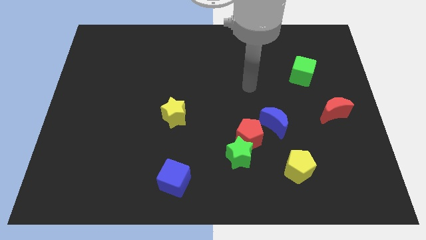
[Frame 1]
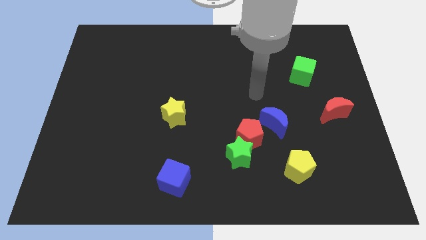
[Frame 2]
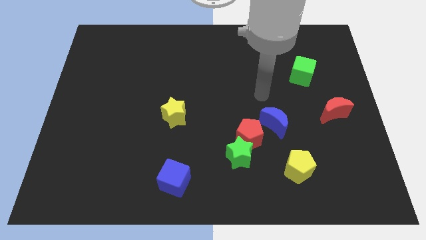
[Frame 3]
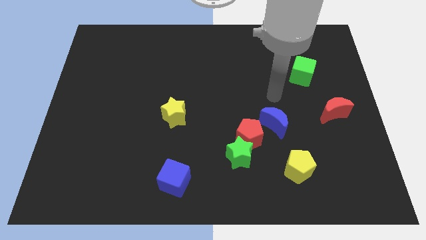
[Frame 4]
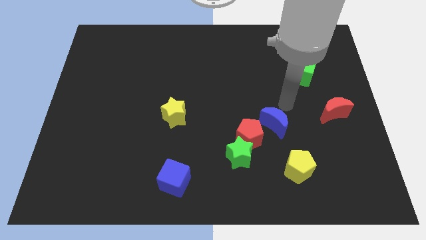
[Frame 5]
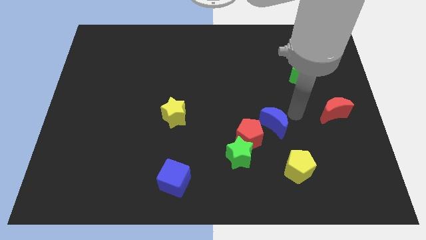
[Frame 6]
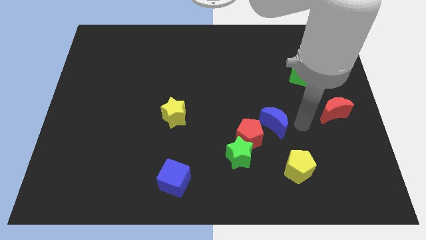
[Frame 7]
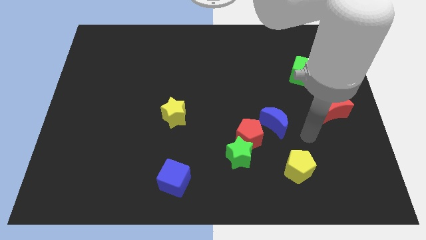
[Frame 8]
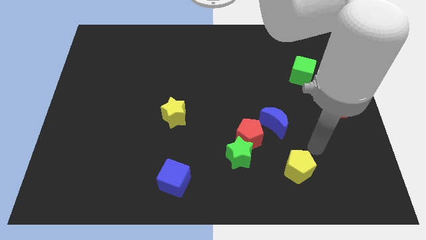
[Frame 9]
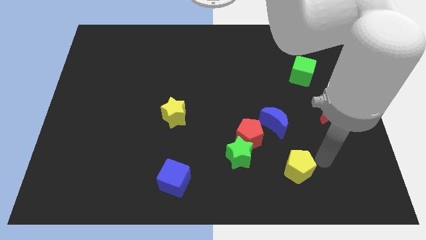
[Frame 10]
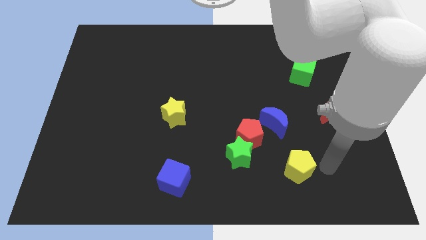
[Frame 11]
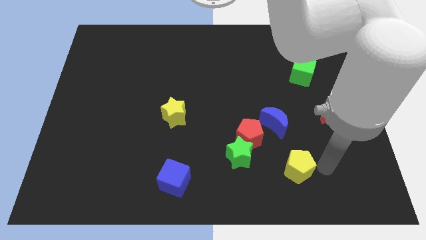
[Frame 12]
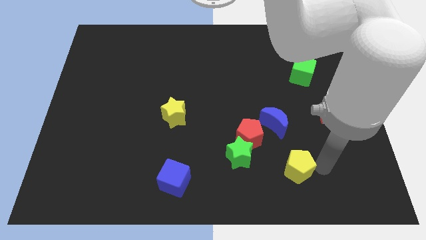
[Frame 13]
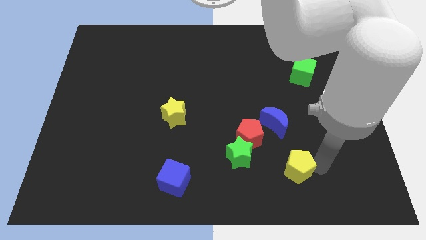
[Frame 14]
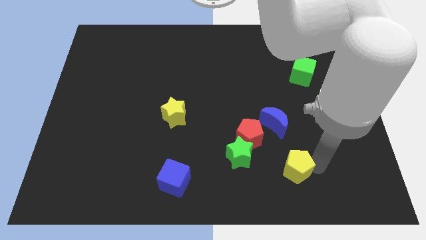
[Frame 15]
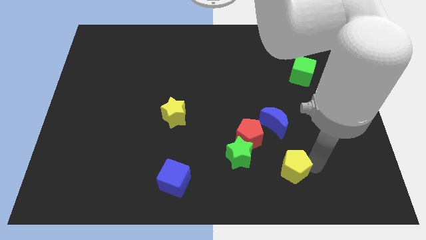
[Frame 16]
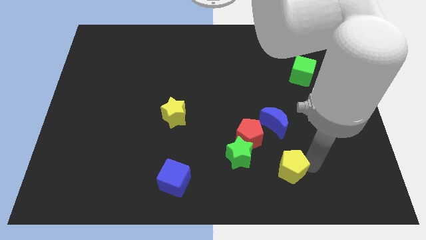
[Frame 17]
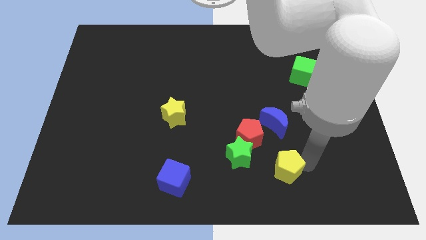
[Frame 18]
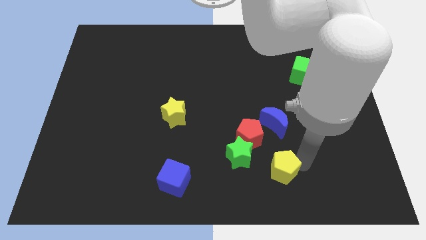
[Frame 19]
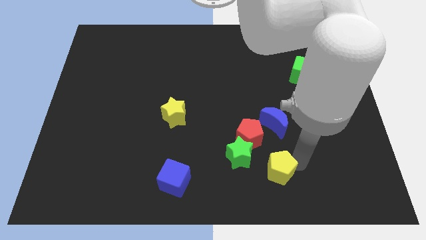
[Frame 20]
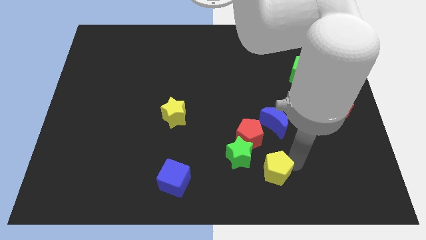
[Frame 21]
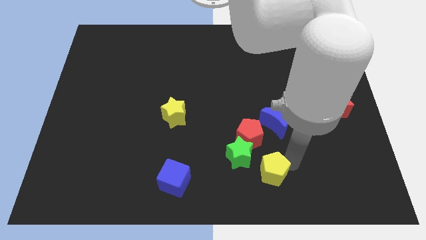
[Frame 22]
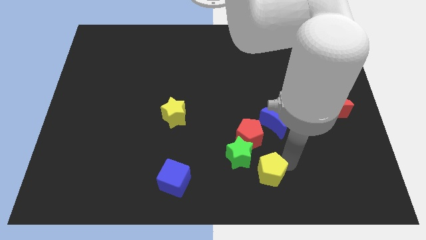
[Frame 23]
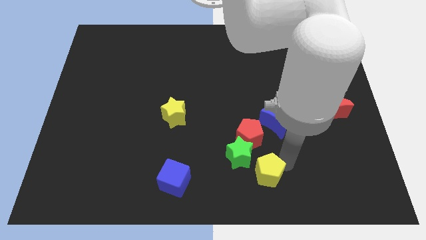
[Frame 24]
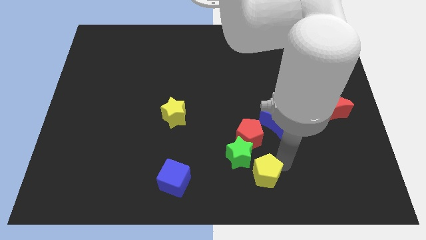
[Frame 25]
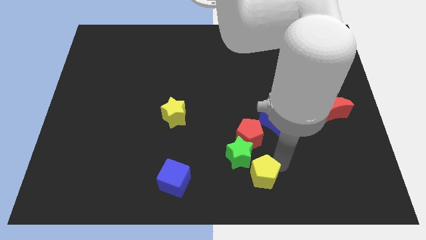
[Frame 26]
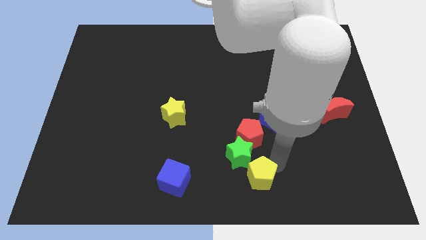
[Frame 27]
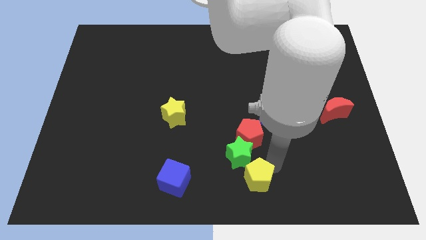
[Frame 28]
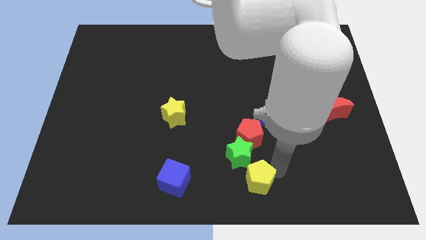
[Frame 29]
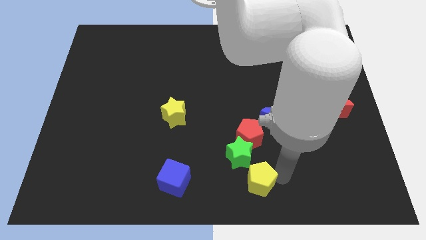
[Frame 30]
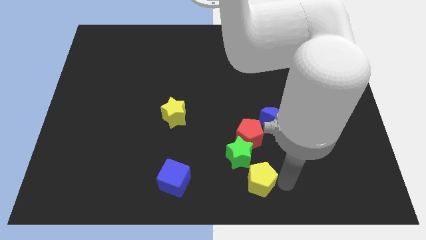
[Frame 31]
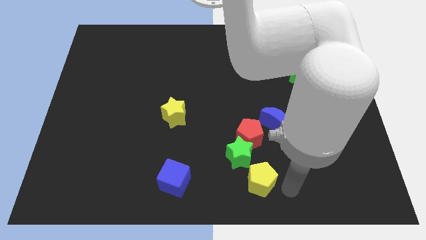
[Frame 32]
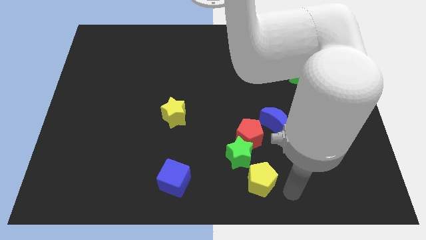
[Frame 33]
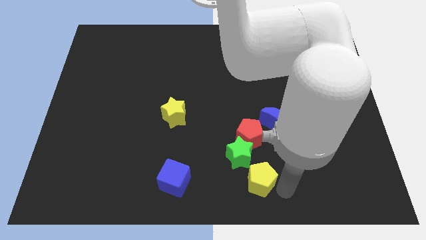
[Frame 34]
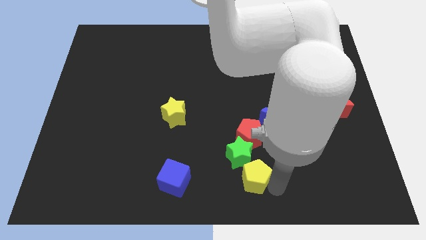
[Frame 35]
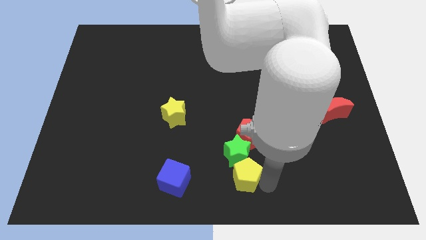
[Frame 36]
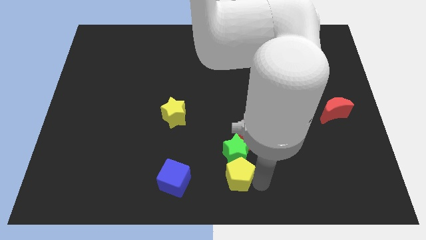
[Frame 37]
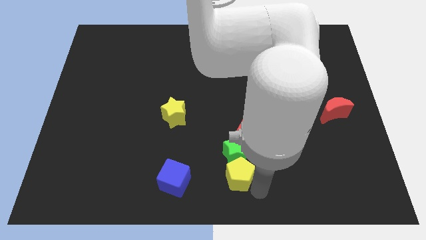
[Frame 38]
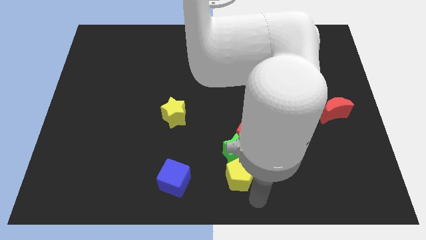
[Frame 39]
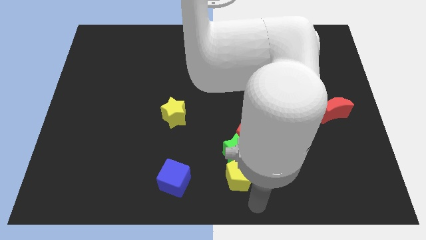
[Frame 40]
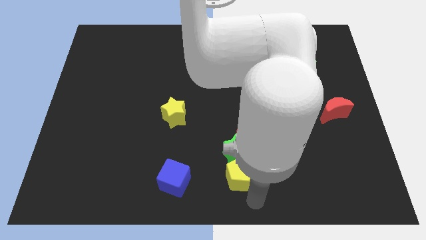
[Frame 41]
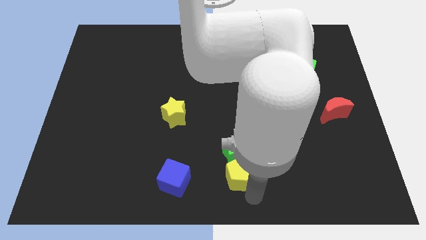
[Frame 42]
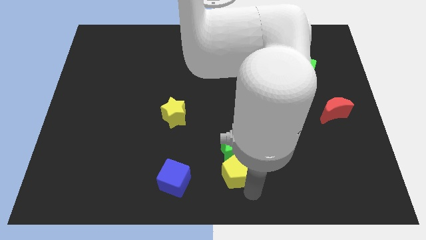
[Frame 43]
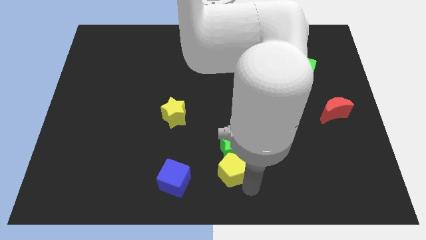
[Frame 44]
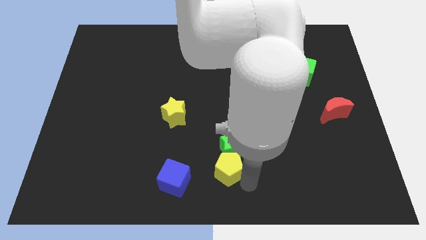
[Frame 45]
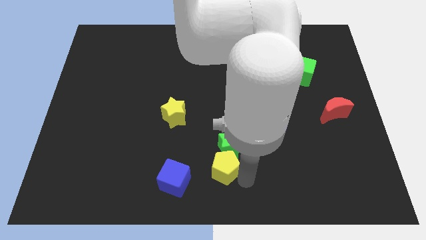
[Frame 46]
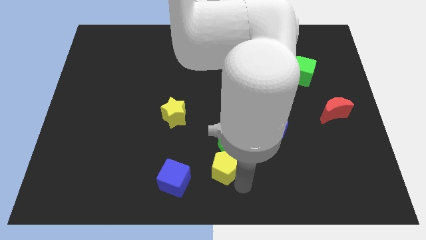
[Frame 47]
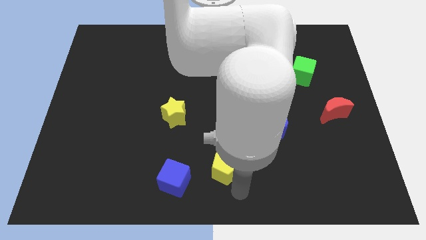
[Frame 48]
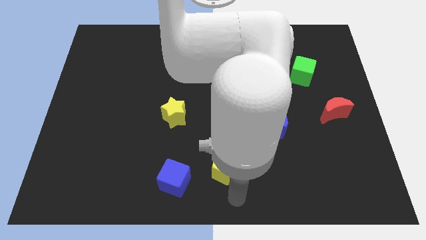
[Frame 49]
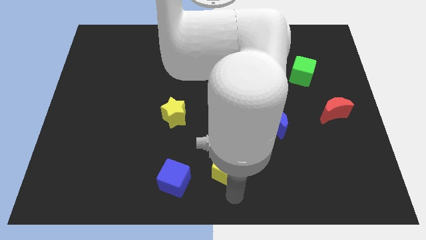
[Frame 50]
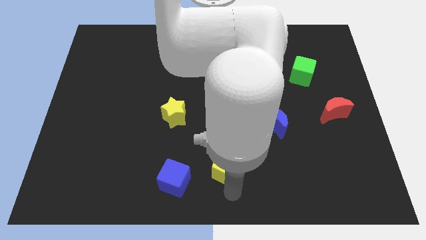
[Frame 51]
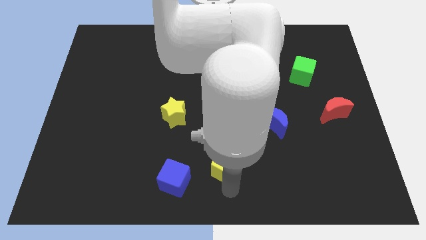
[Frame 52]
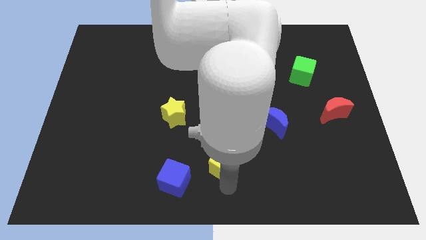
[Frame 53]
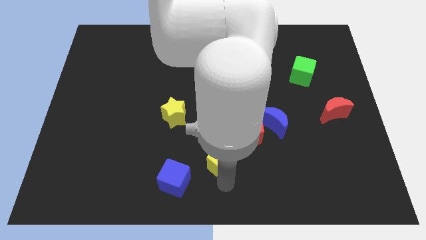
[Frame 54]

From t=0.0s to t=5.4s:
slide the yellow pentagon up and then to the left somewhat

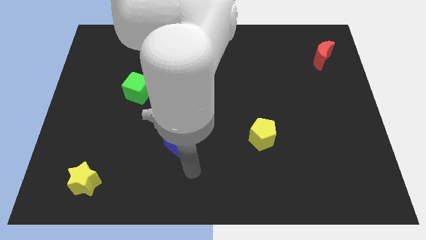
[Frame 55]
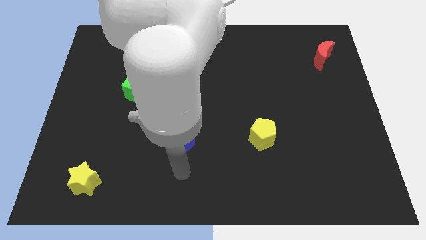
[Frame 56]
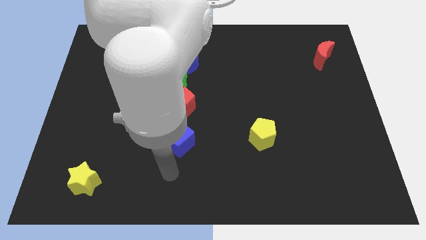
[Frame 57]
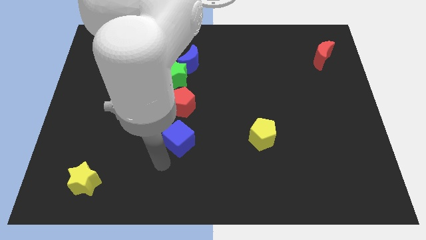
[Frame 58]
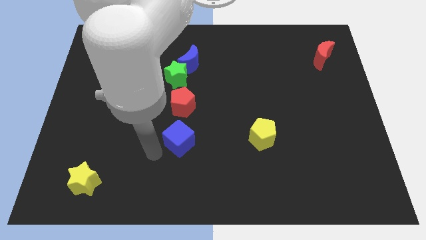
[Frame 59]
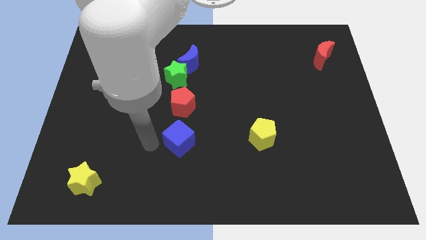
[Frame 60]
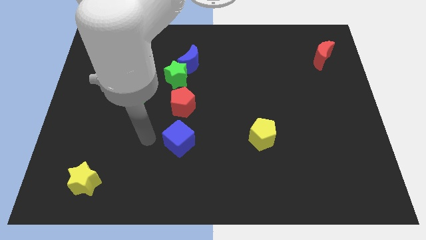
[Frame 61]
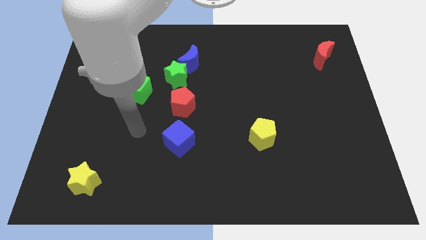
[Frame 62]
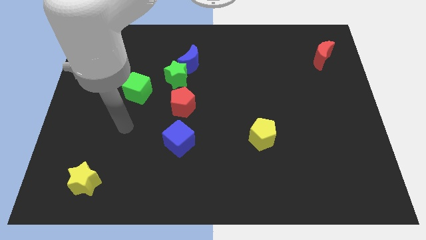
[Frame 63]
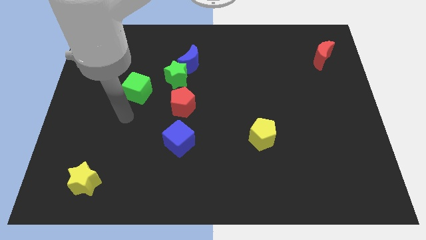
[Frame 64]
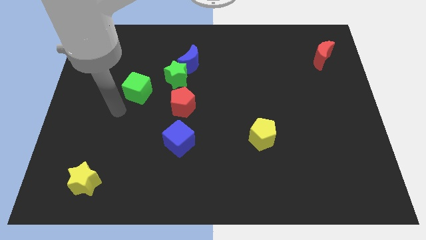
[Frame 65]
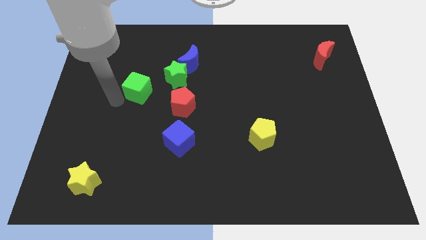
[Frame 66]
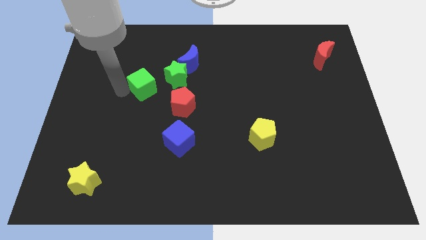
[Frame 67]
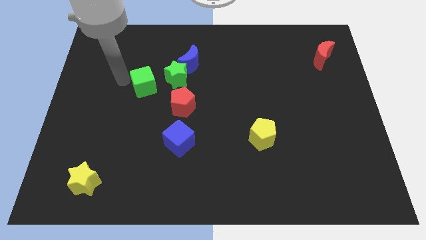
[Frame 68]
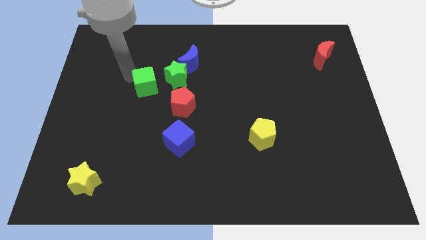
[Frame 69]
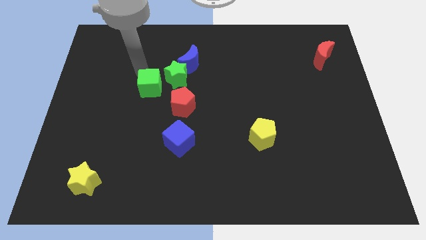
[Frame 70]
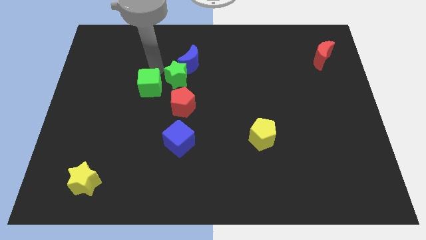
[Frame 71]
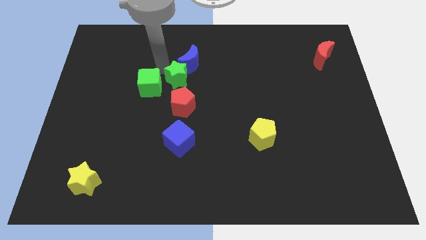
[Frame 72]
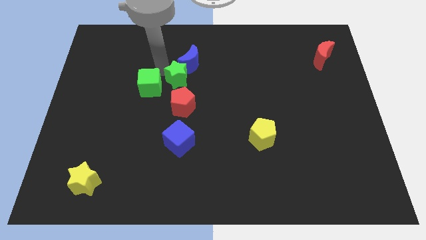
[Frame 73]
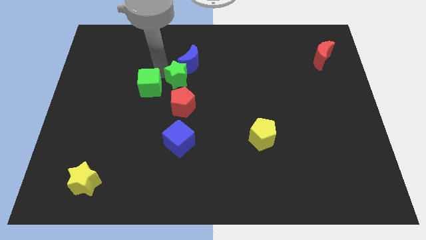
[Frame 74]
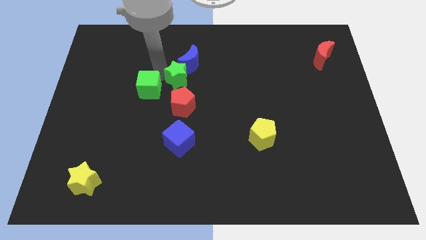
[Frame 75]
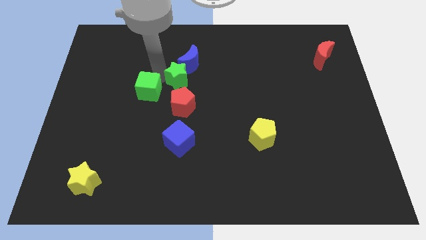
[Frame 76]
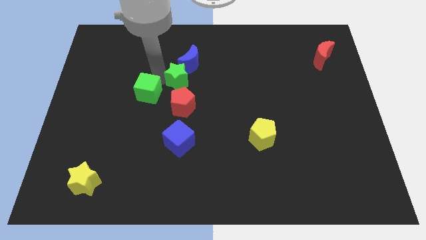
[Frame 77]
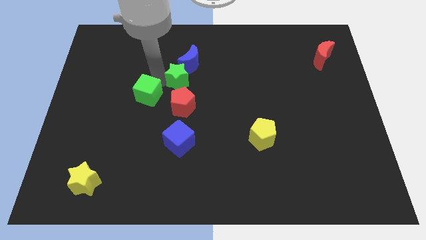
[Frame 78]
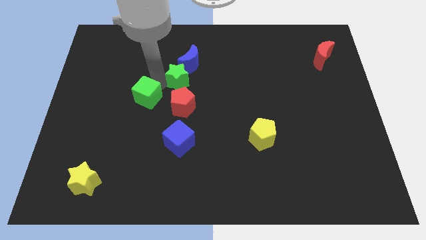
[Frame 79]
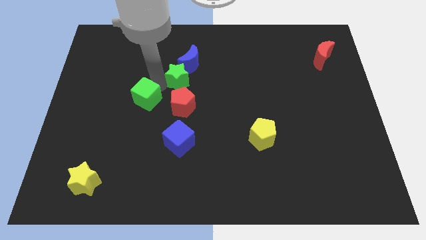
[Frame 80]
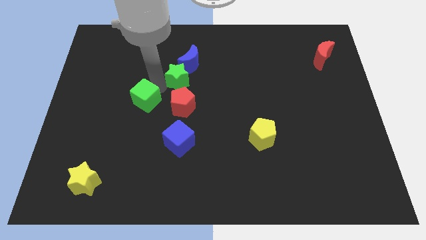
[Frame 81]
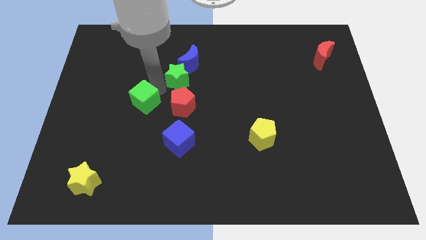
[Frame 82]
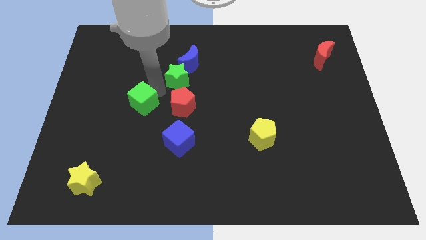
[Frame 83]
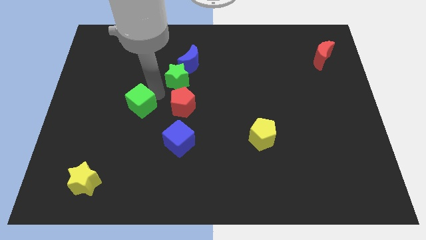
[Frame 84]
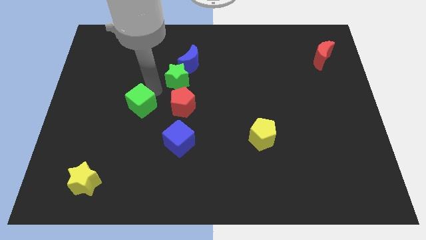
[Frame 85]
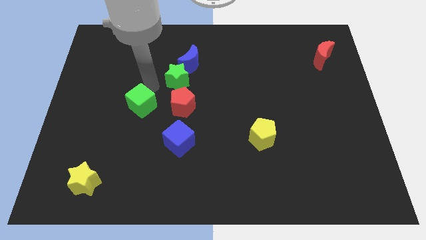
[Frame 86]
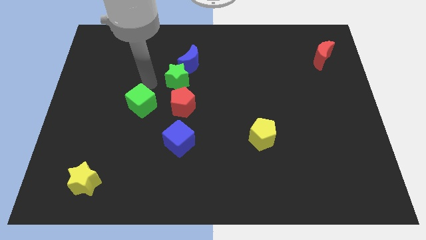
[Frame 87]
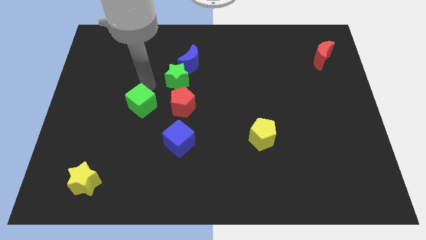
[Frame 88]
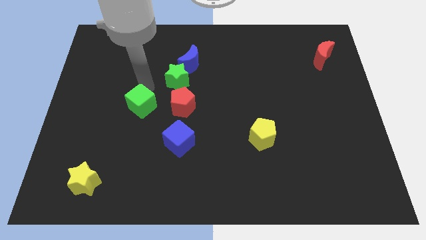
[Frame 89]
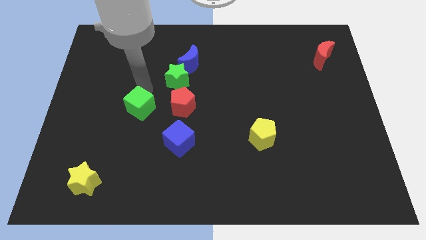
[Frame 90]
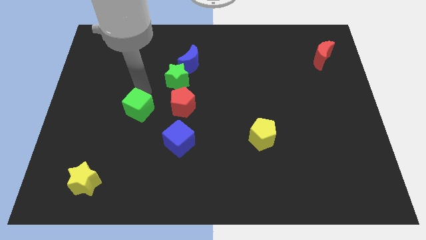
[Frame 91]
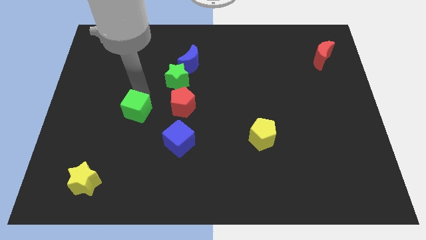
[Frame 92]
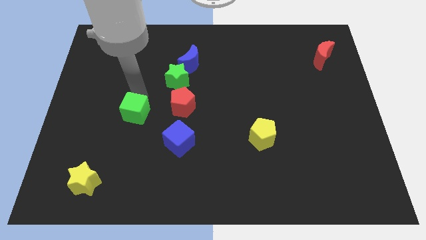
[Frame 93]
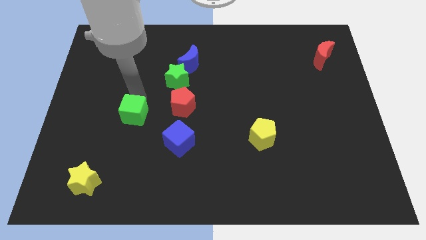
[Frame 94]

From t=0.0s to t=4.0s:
push the green cube a little downwards
